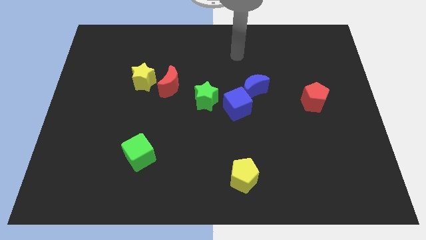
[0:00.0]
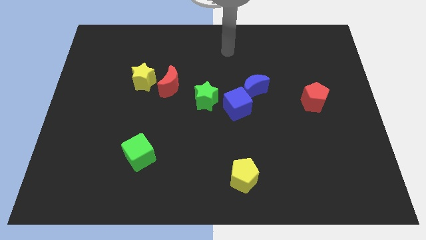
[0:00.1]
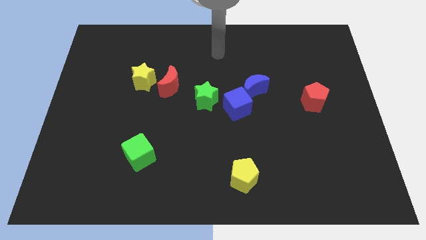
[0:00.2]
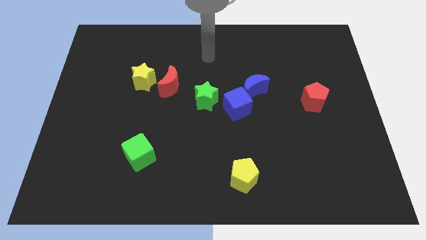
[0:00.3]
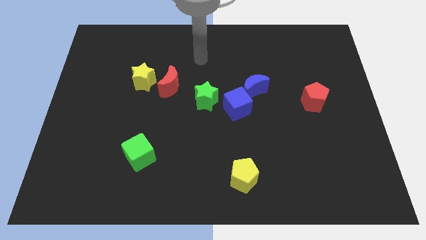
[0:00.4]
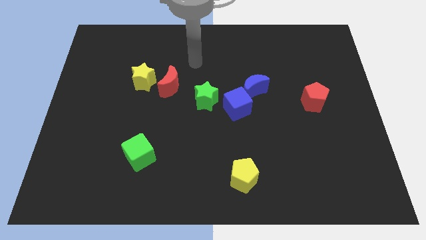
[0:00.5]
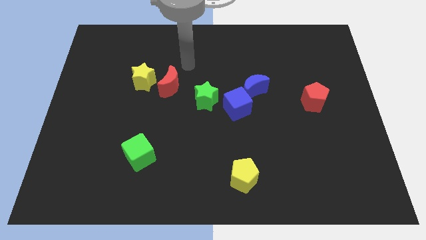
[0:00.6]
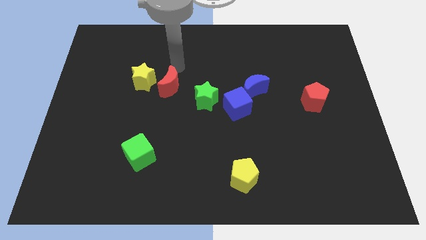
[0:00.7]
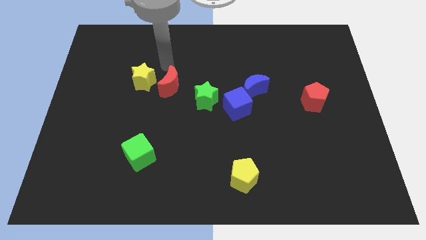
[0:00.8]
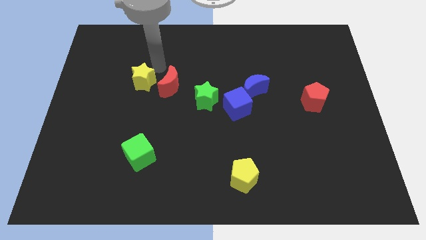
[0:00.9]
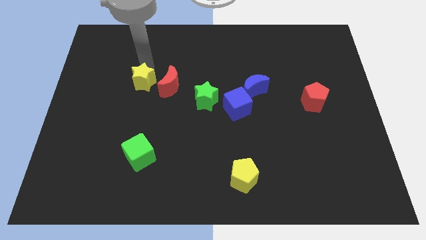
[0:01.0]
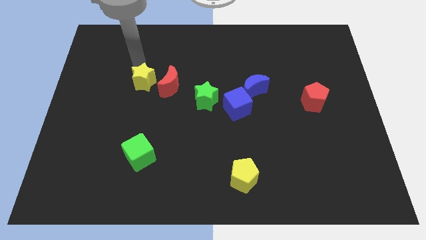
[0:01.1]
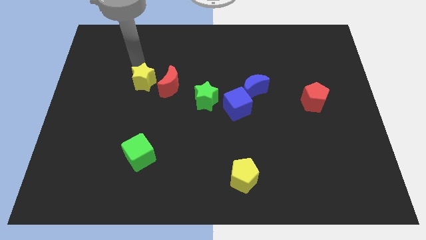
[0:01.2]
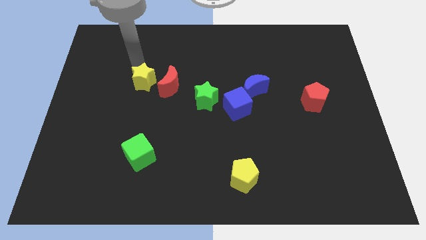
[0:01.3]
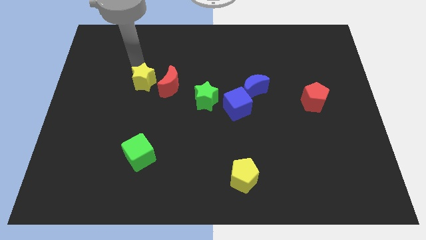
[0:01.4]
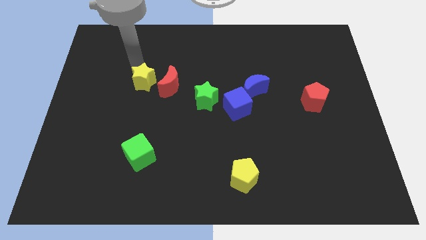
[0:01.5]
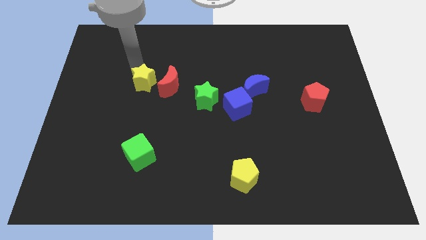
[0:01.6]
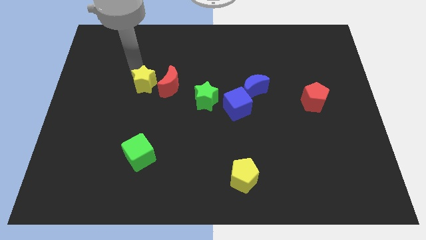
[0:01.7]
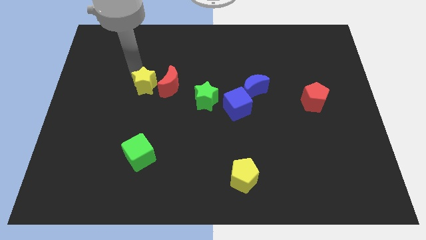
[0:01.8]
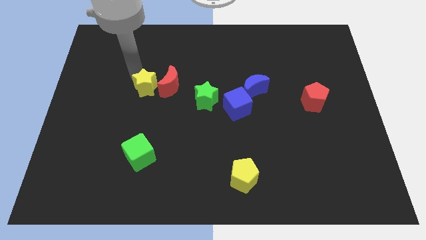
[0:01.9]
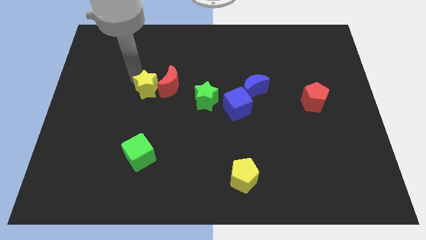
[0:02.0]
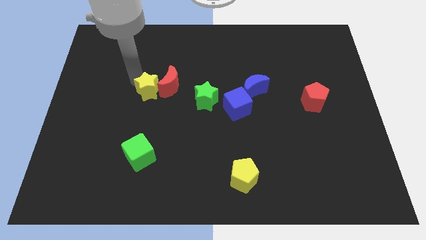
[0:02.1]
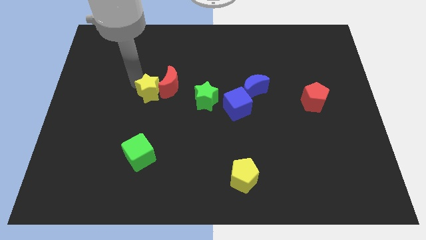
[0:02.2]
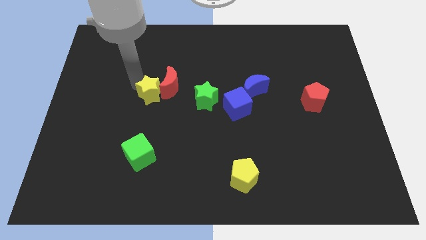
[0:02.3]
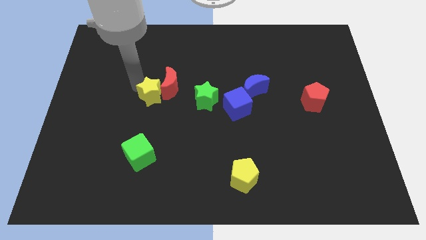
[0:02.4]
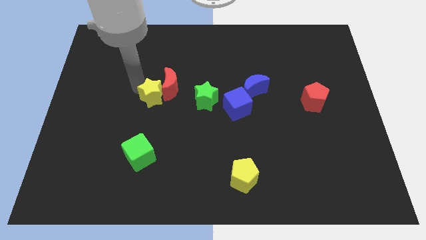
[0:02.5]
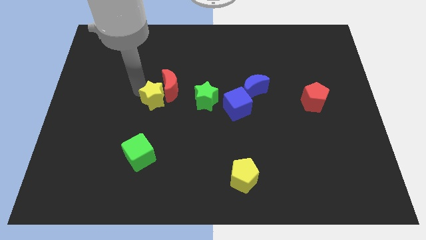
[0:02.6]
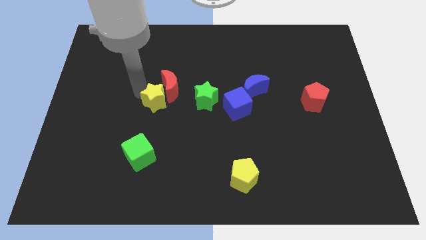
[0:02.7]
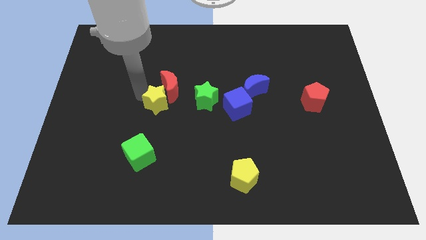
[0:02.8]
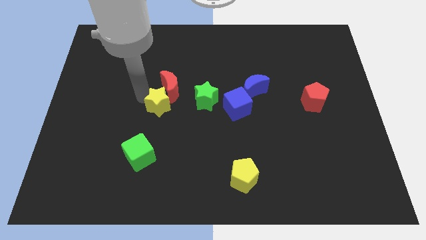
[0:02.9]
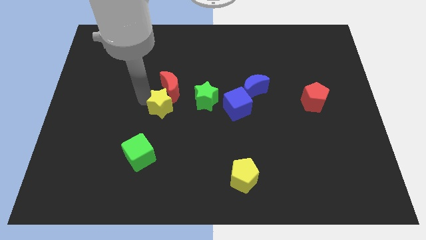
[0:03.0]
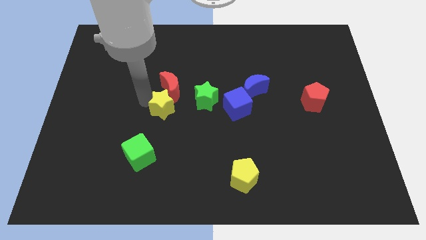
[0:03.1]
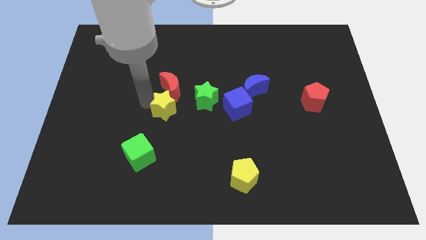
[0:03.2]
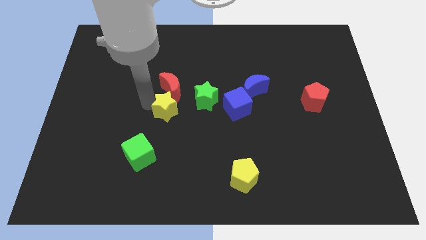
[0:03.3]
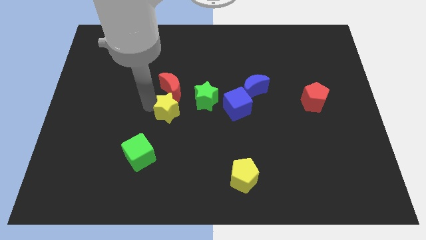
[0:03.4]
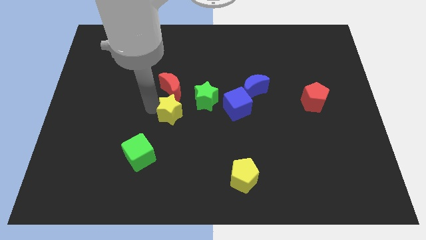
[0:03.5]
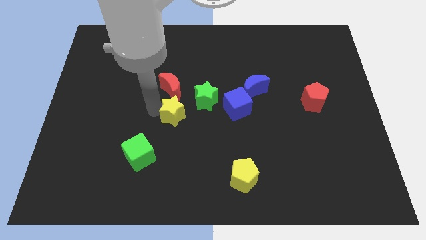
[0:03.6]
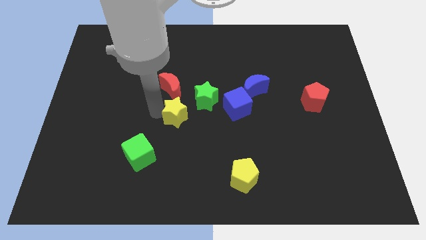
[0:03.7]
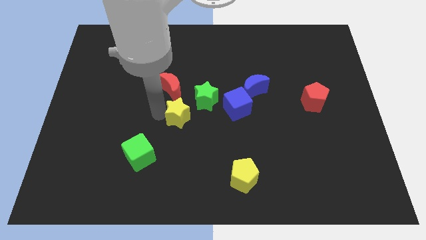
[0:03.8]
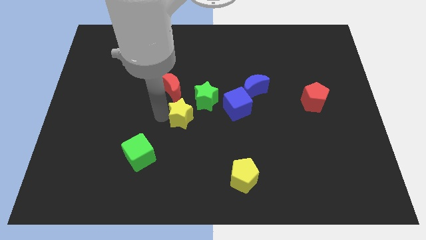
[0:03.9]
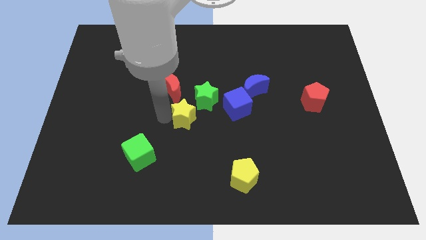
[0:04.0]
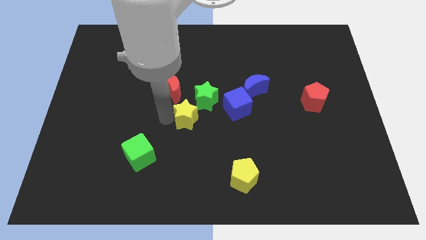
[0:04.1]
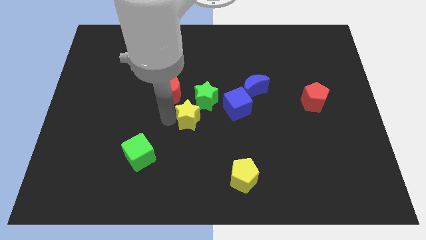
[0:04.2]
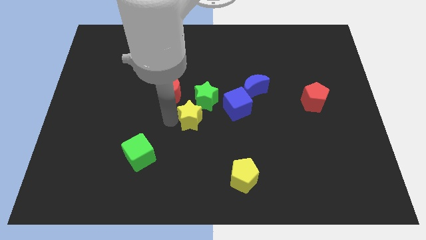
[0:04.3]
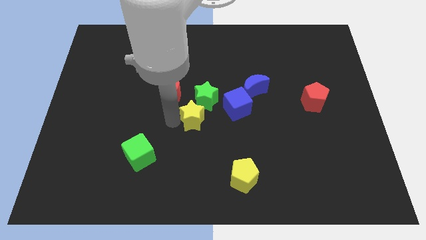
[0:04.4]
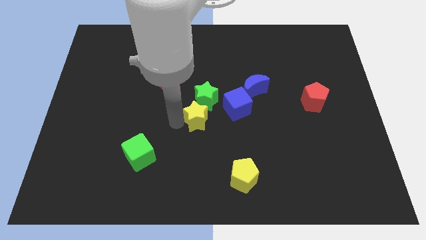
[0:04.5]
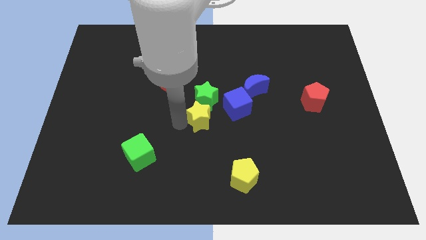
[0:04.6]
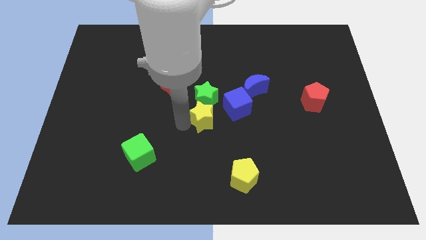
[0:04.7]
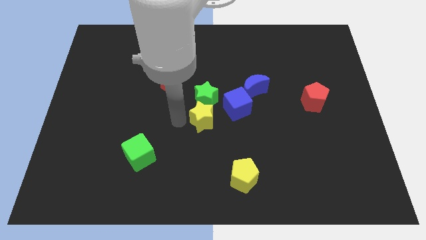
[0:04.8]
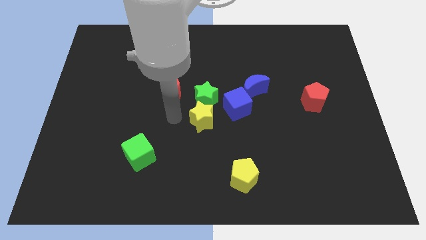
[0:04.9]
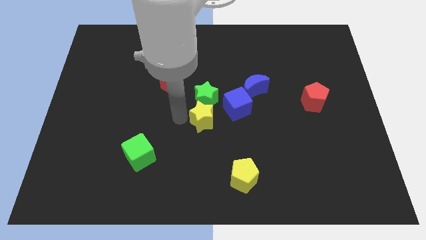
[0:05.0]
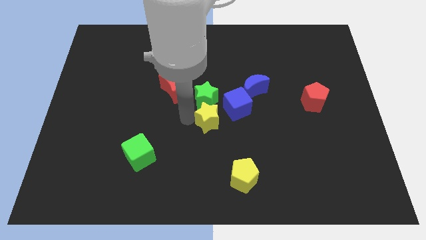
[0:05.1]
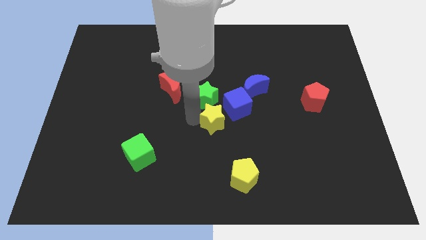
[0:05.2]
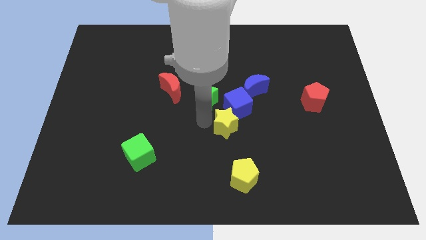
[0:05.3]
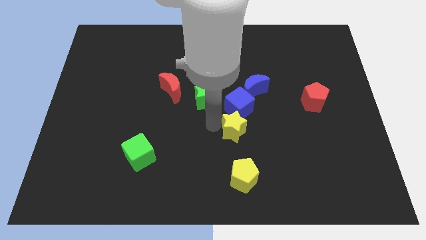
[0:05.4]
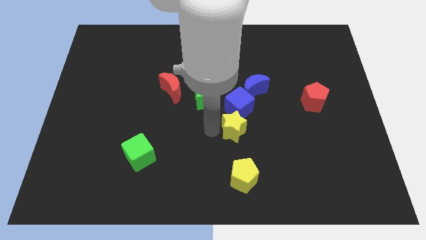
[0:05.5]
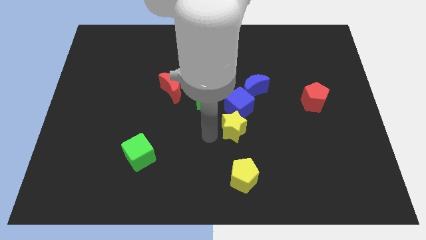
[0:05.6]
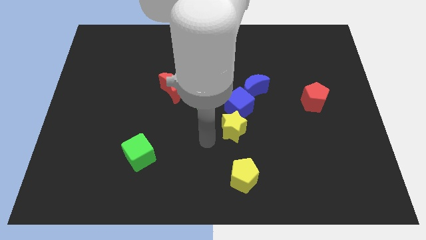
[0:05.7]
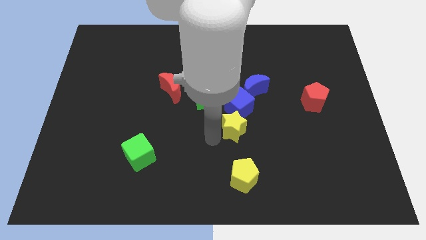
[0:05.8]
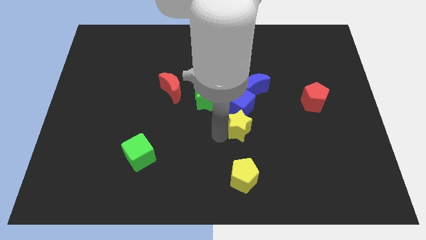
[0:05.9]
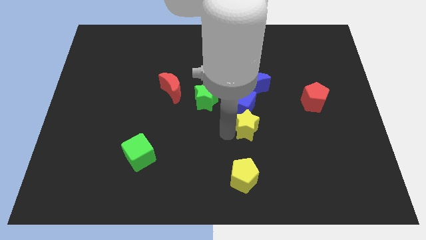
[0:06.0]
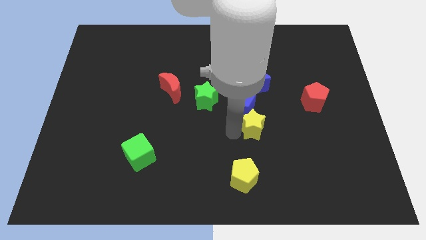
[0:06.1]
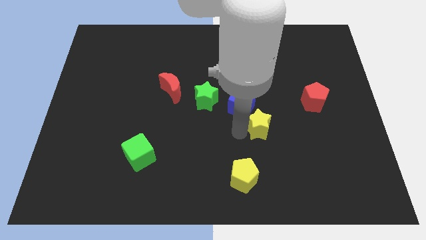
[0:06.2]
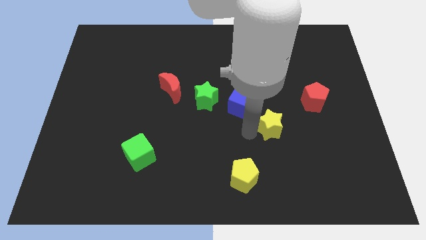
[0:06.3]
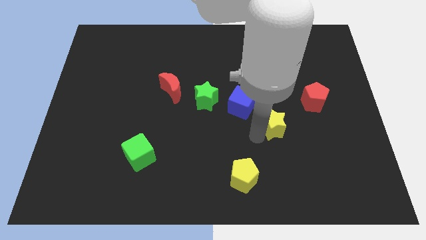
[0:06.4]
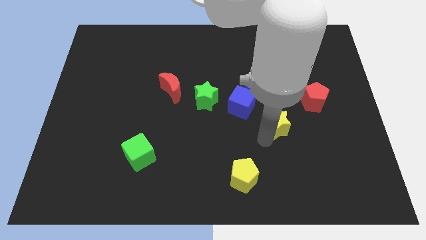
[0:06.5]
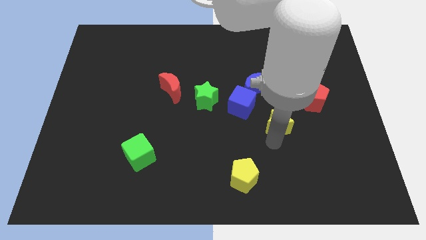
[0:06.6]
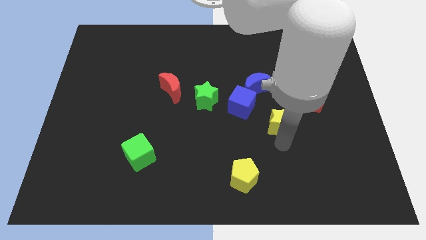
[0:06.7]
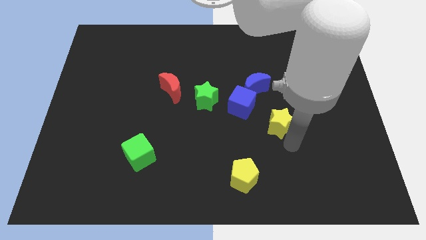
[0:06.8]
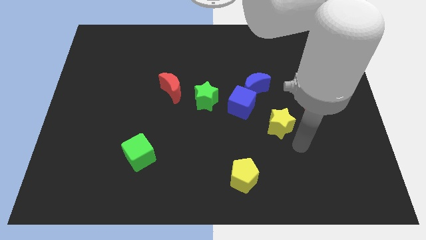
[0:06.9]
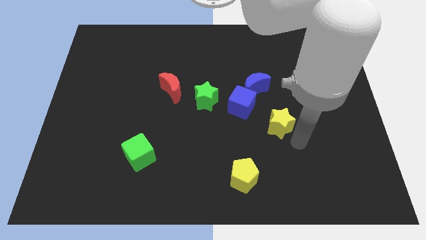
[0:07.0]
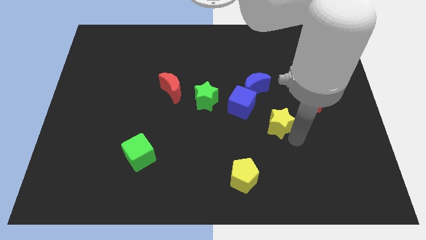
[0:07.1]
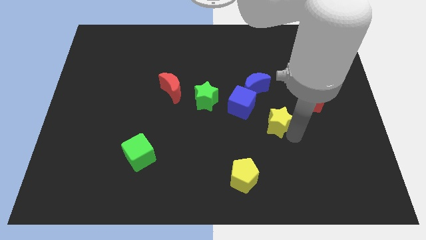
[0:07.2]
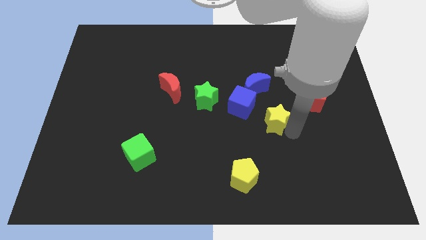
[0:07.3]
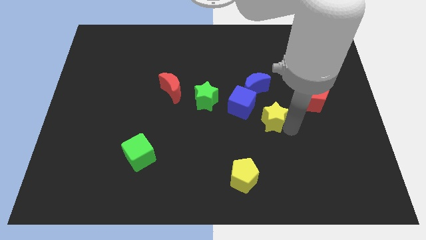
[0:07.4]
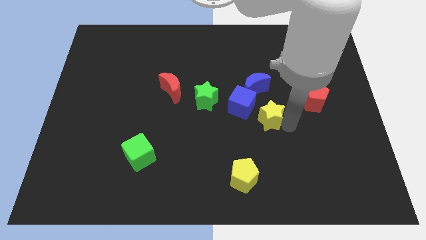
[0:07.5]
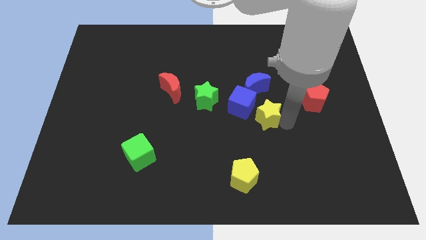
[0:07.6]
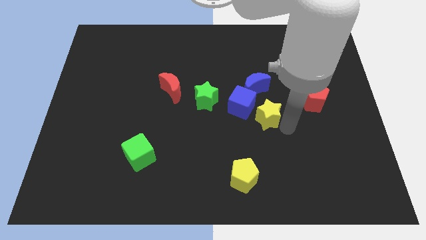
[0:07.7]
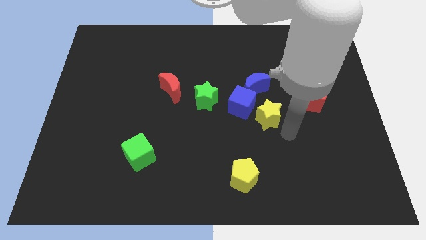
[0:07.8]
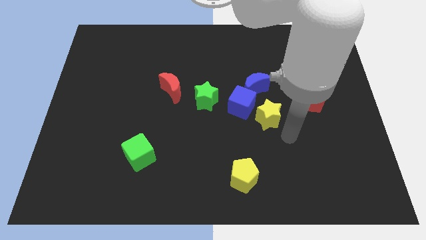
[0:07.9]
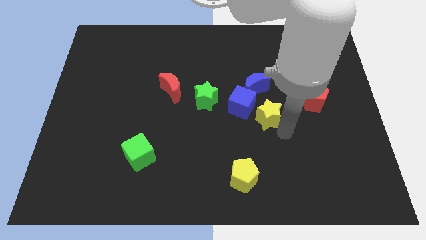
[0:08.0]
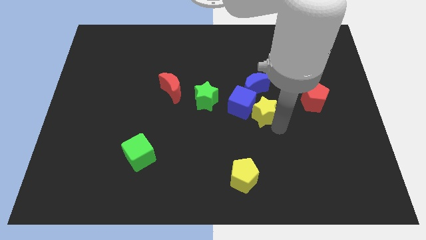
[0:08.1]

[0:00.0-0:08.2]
move the yellow star just right of the green star
